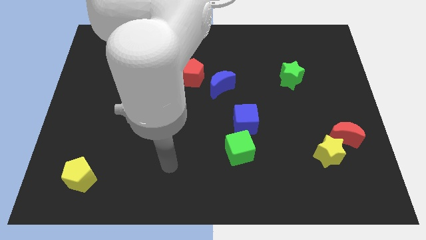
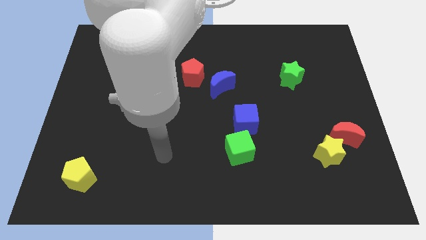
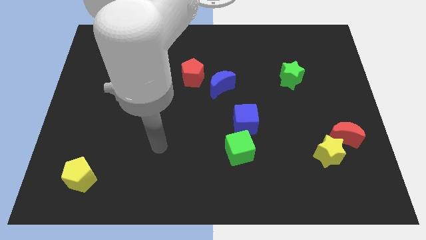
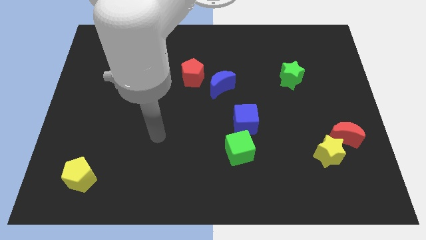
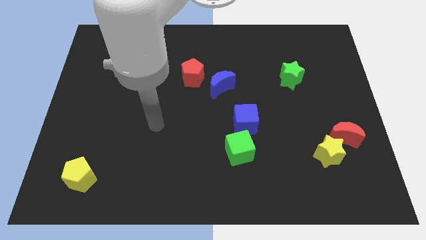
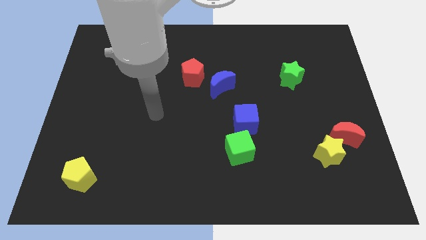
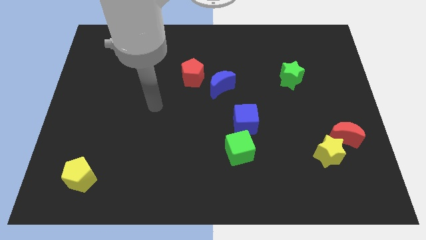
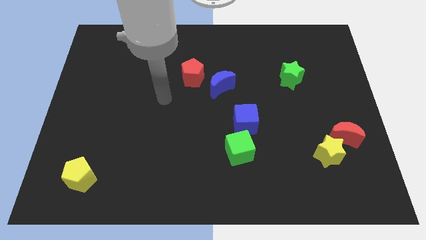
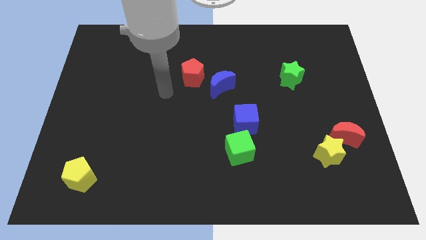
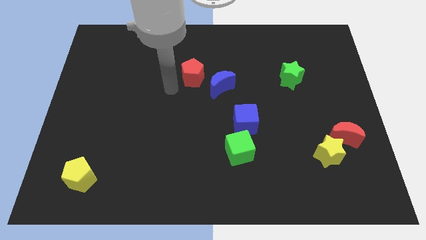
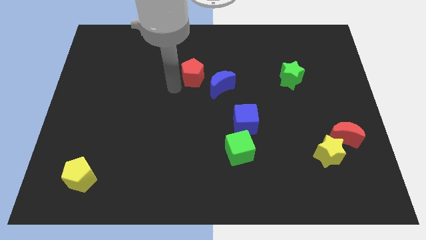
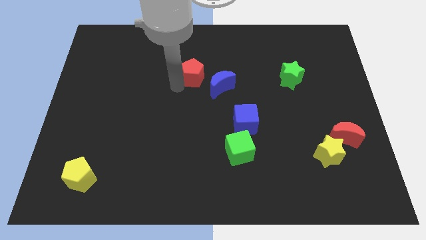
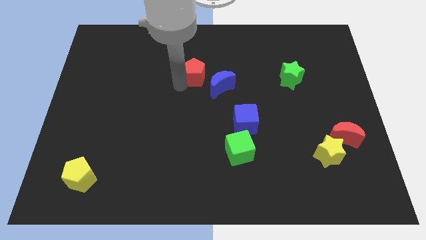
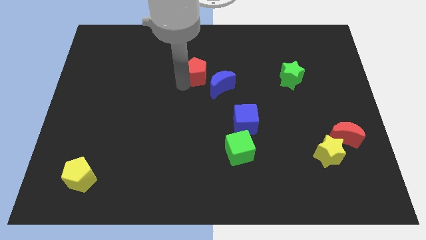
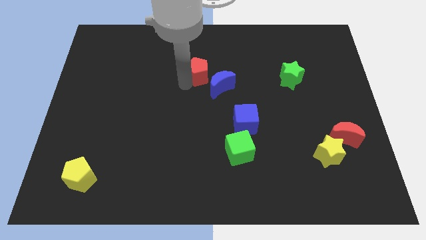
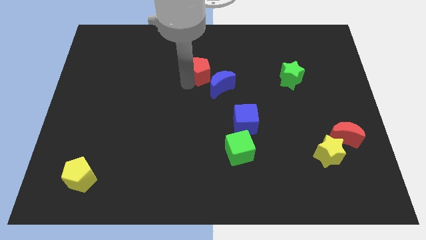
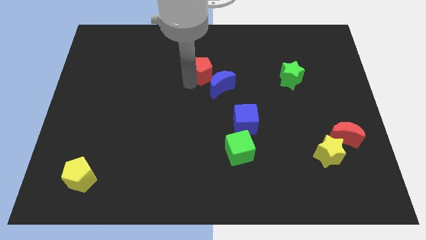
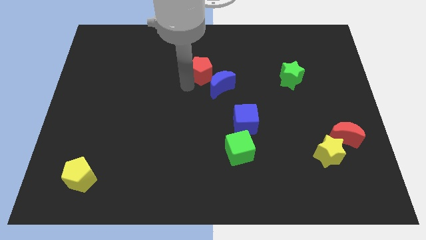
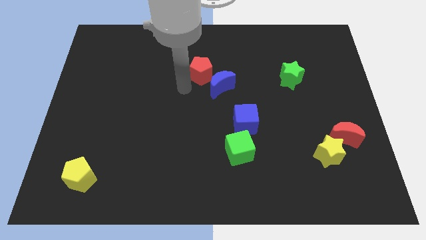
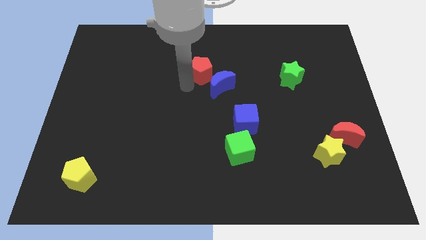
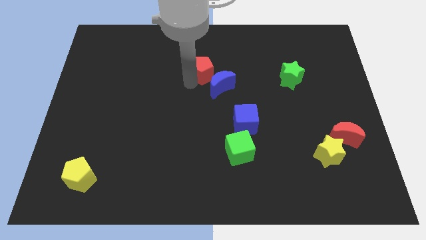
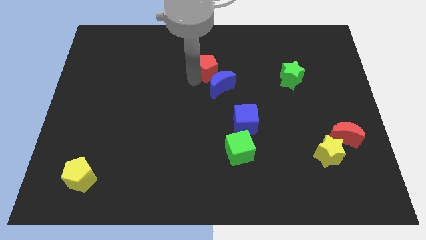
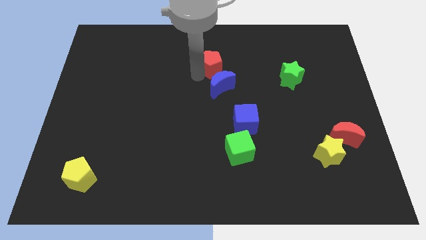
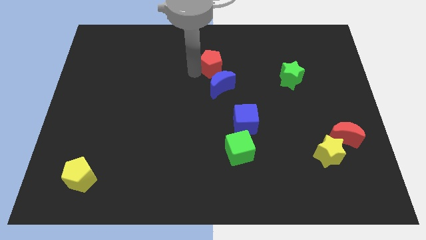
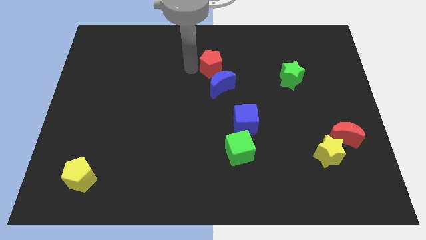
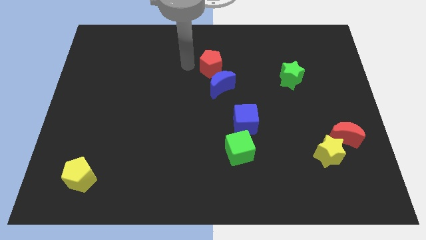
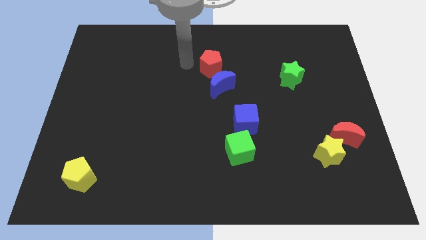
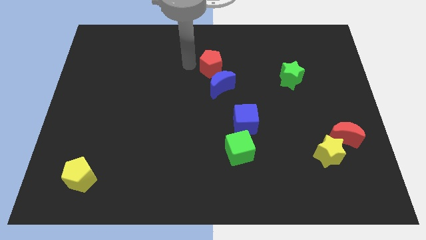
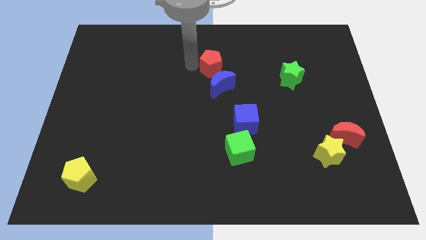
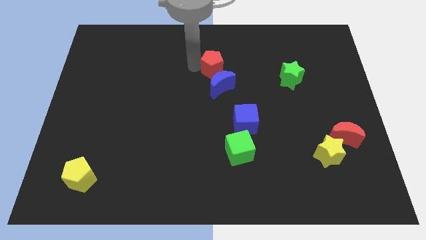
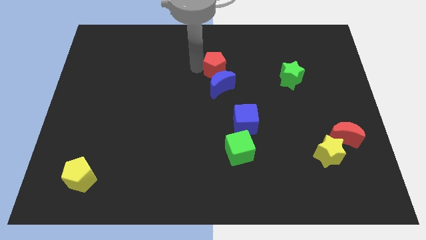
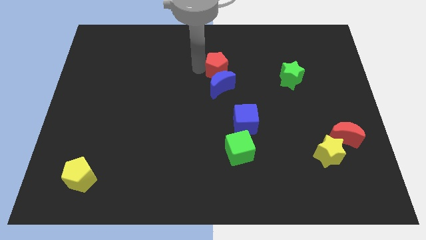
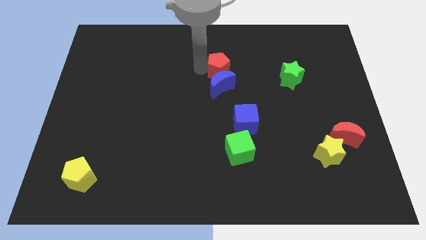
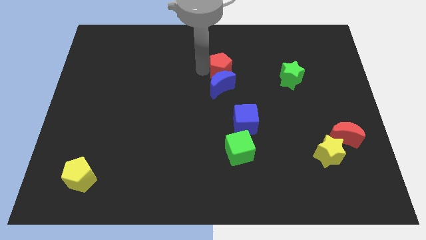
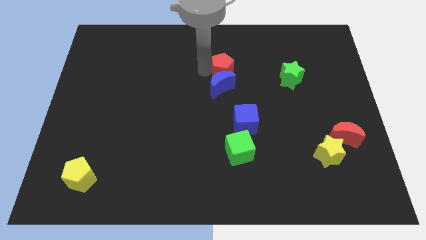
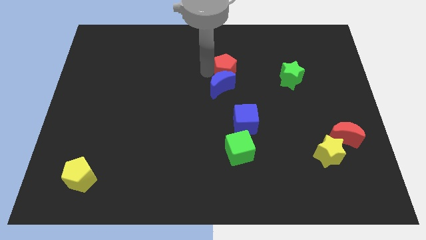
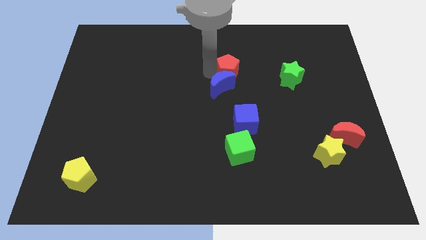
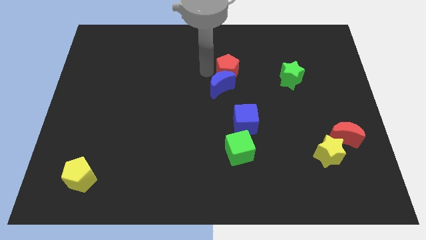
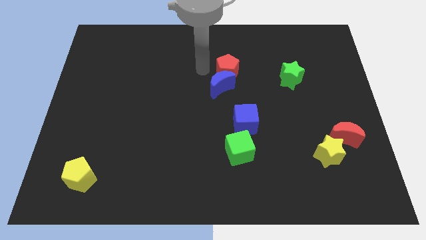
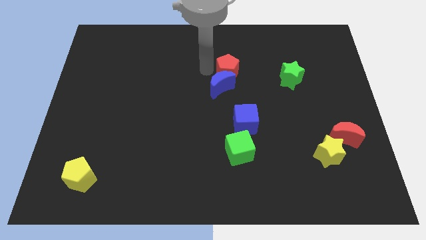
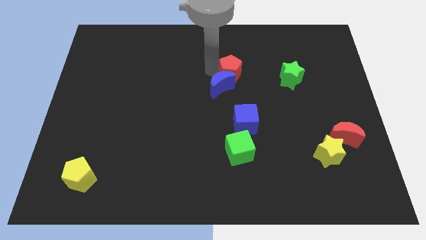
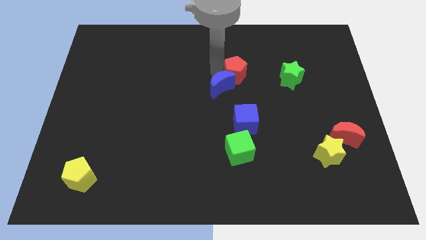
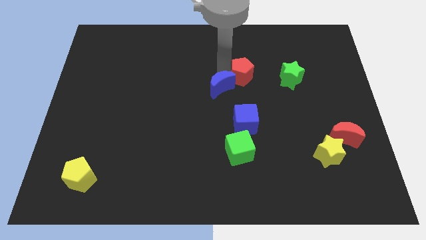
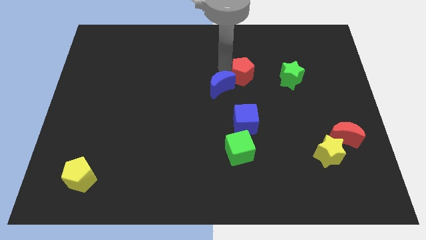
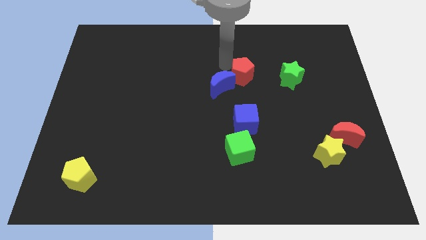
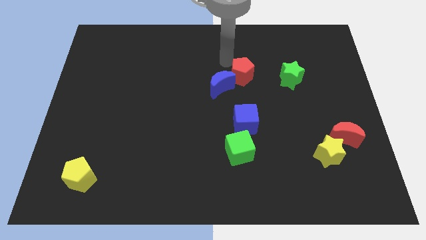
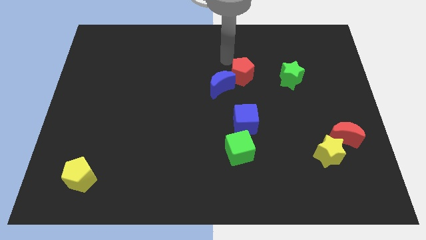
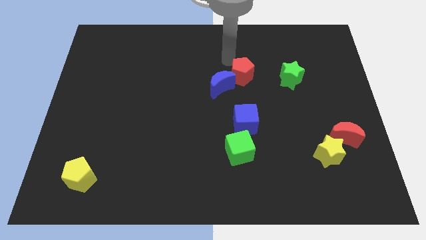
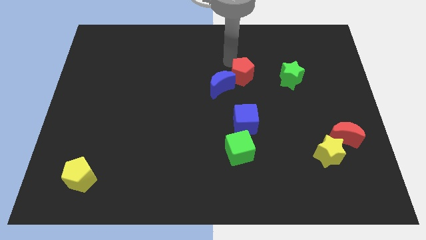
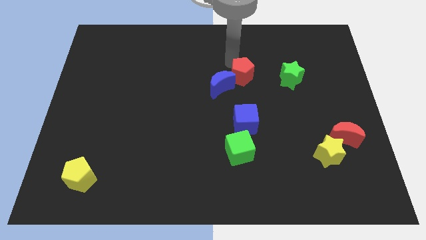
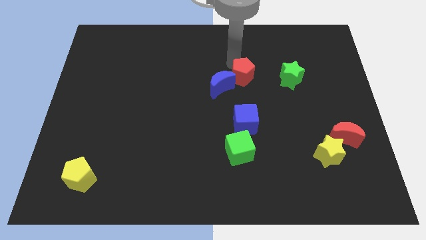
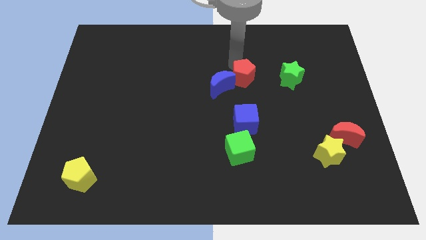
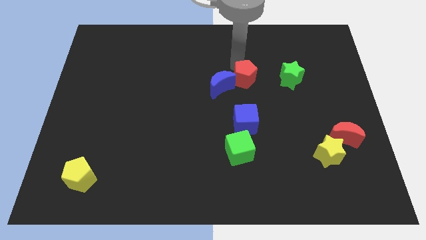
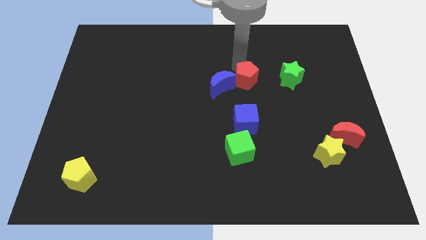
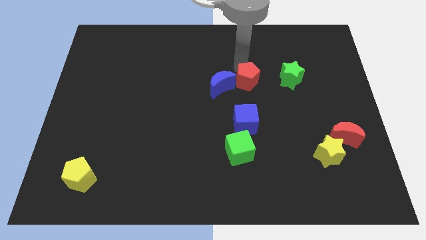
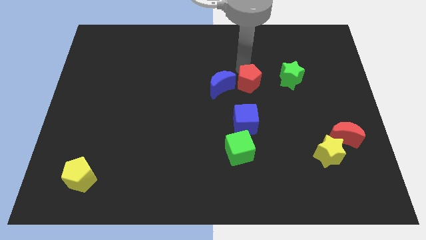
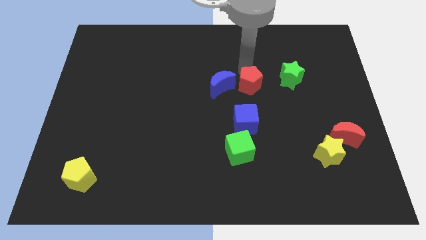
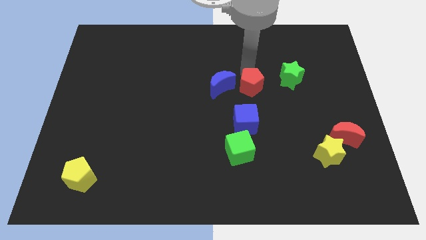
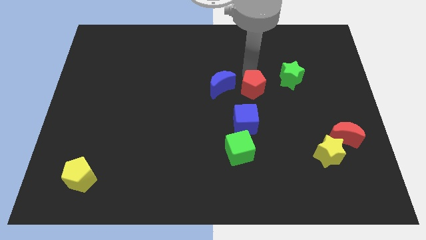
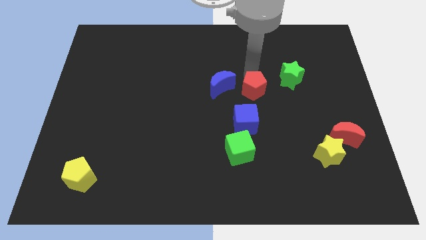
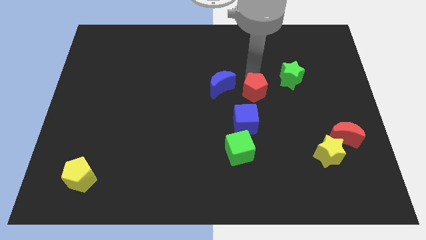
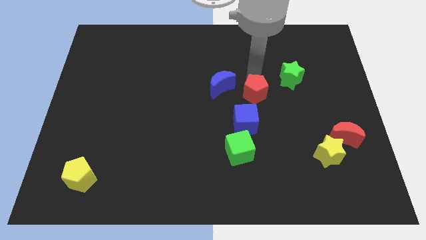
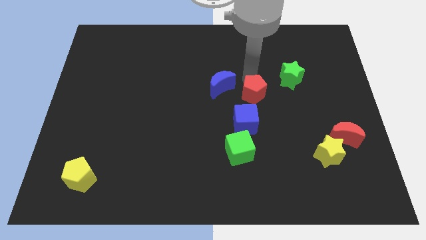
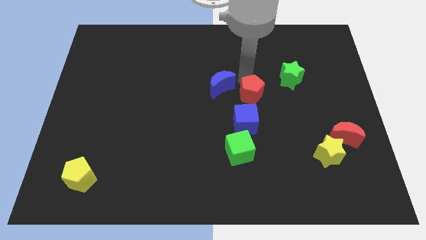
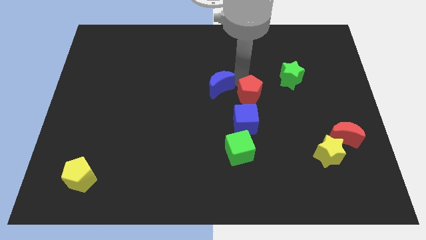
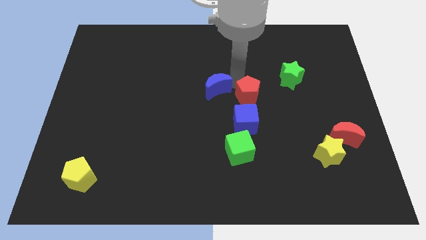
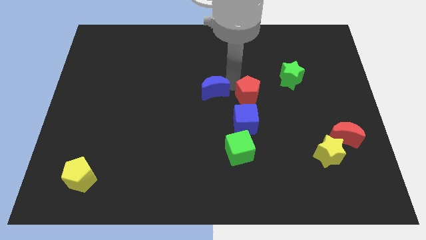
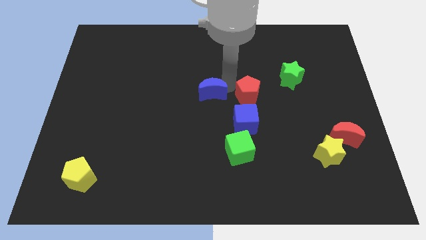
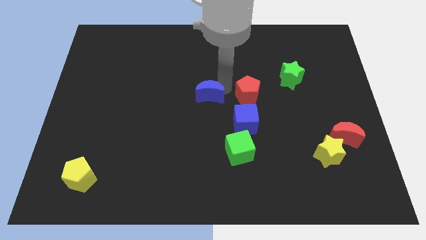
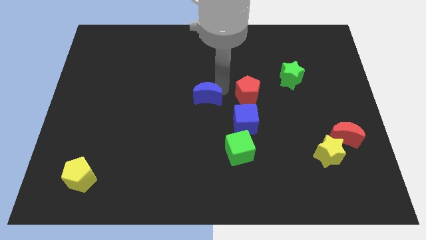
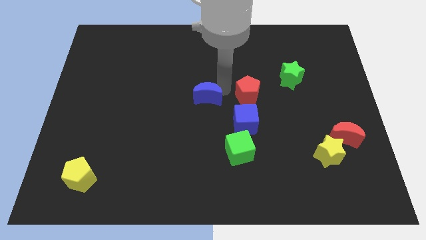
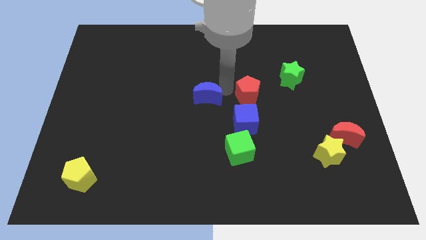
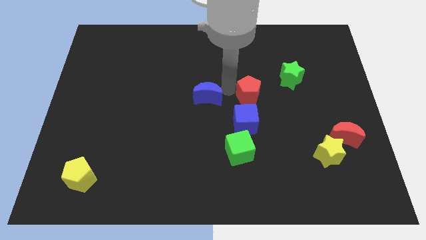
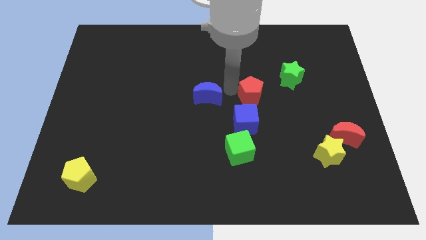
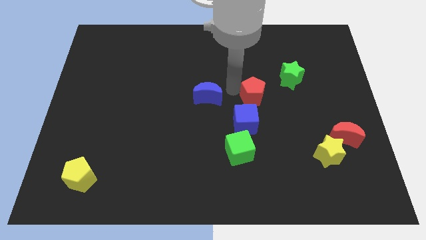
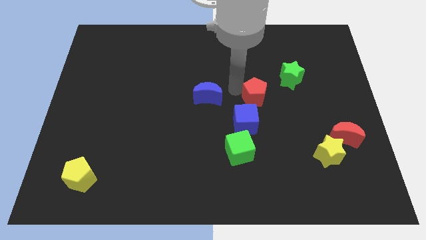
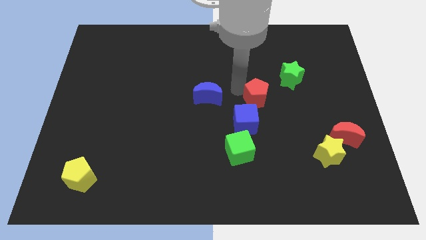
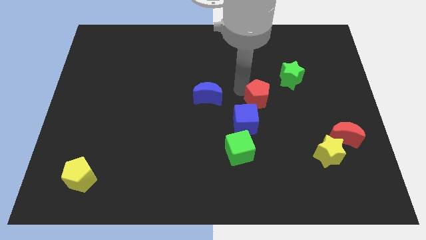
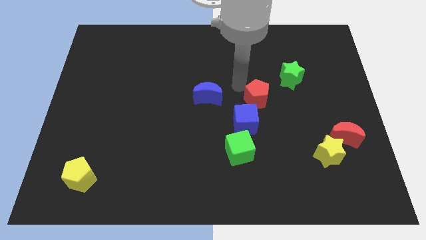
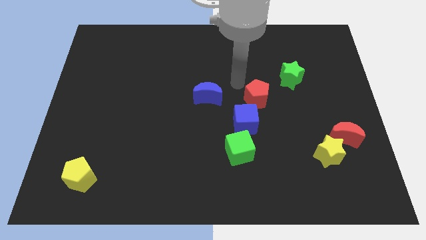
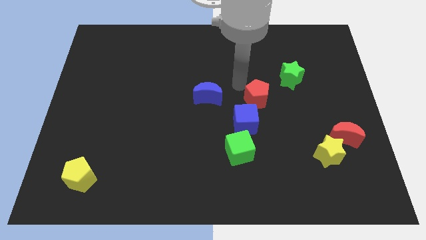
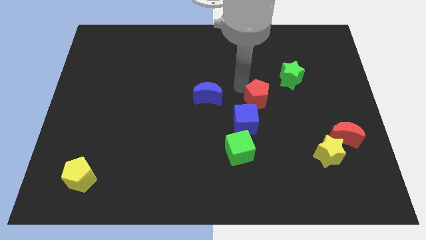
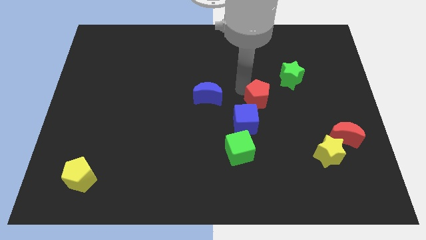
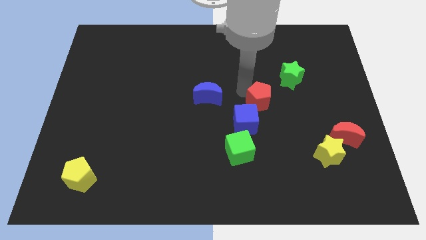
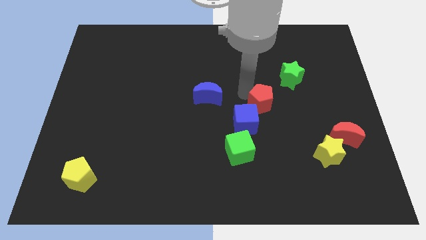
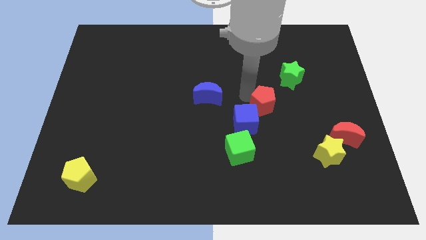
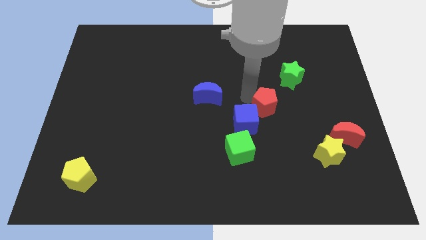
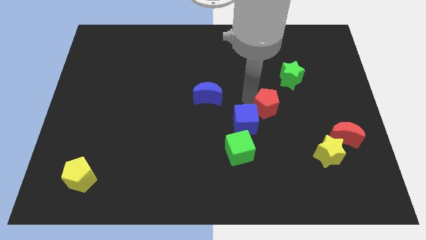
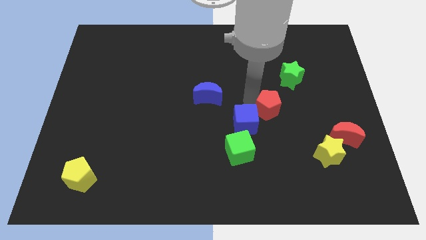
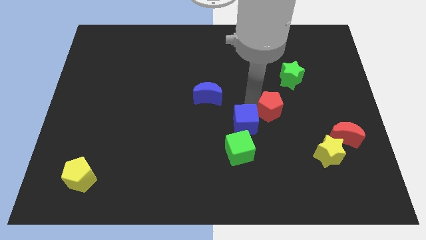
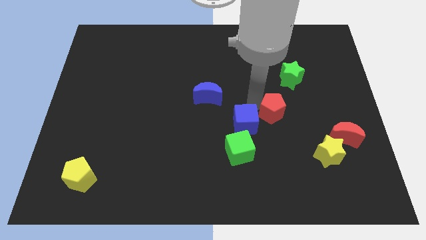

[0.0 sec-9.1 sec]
move the red pentagon down and then right
